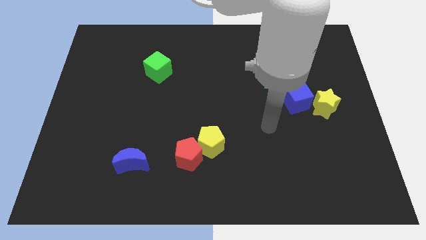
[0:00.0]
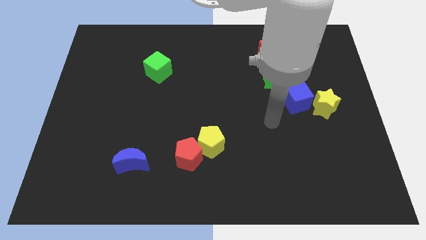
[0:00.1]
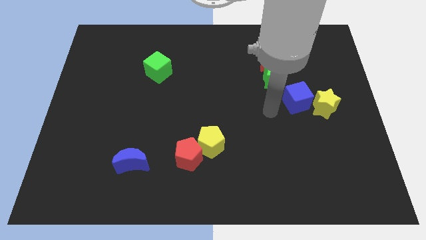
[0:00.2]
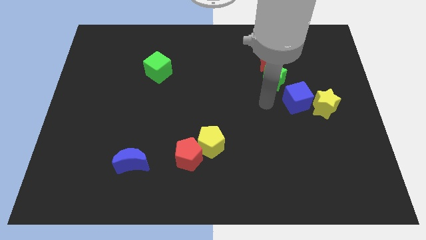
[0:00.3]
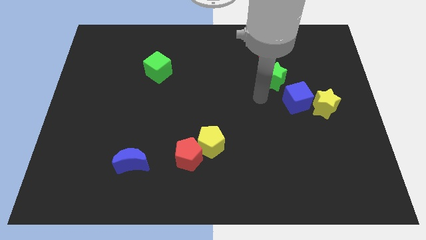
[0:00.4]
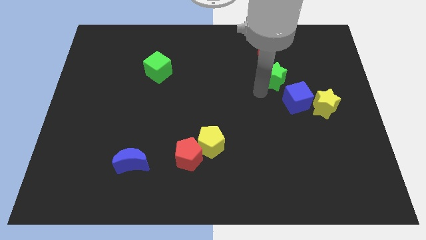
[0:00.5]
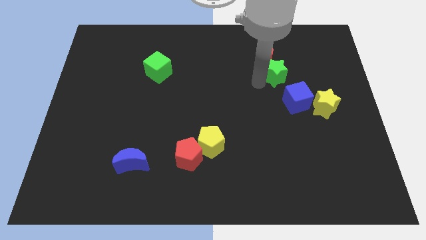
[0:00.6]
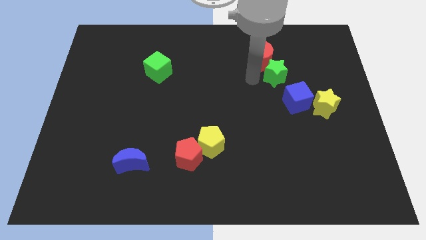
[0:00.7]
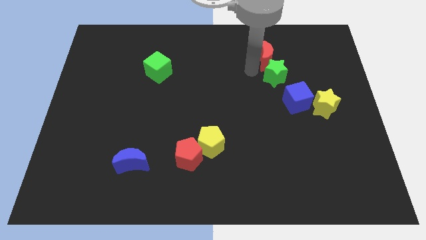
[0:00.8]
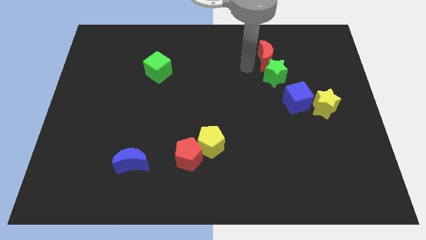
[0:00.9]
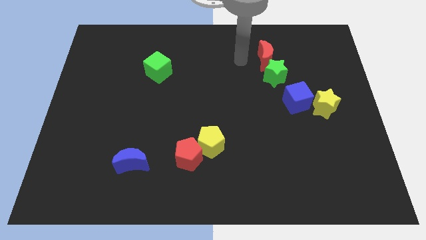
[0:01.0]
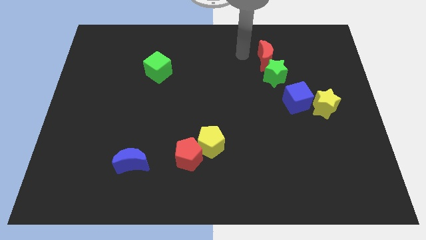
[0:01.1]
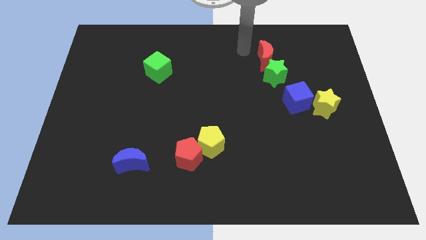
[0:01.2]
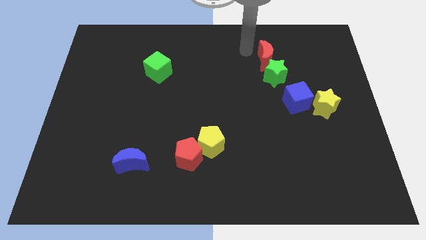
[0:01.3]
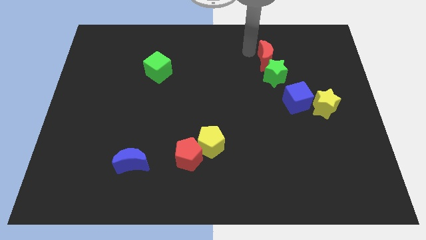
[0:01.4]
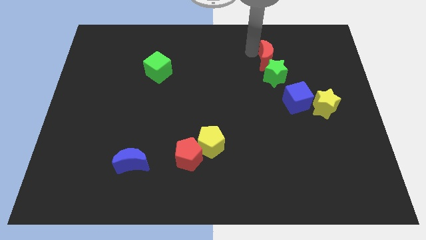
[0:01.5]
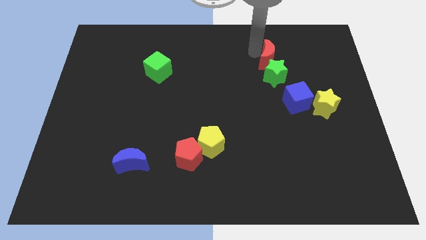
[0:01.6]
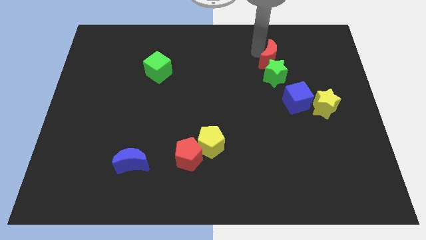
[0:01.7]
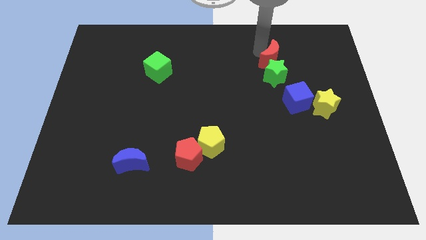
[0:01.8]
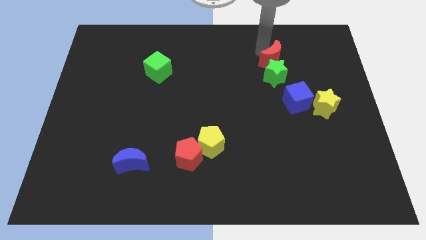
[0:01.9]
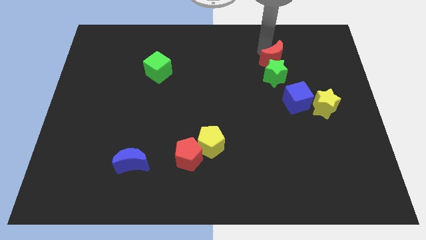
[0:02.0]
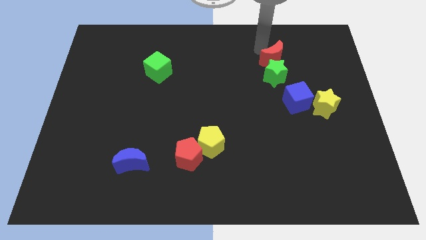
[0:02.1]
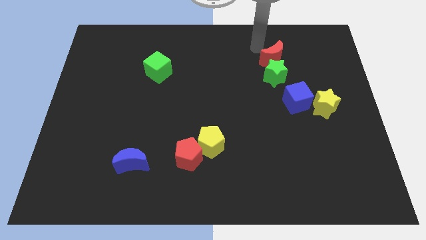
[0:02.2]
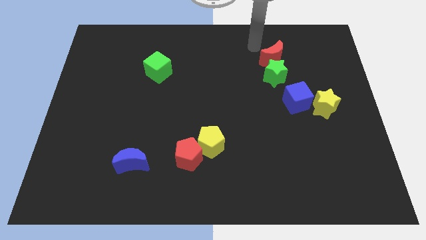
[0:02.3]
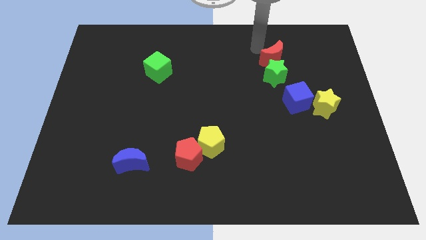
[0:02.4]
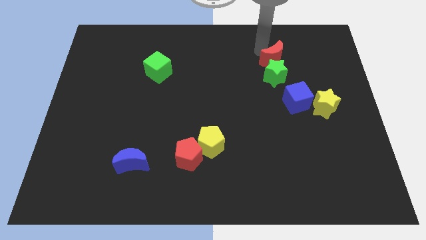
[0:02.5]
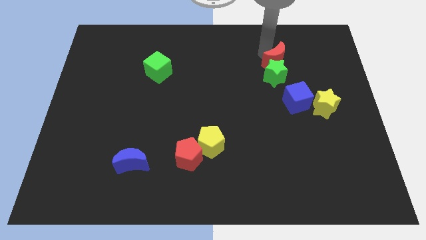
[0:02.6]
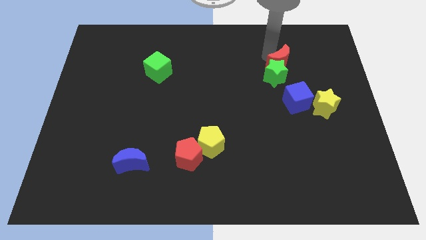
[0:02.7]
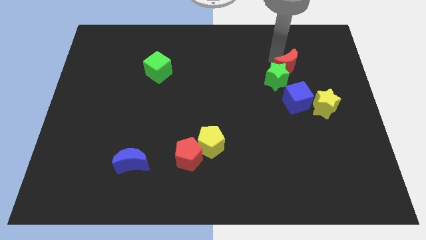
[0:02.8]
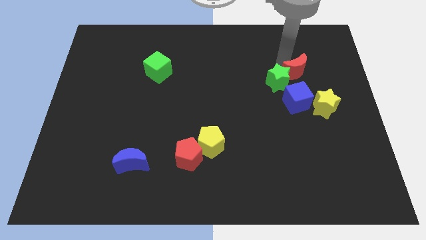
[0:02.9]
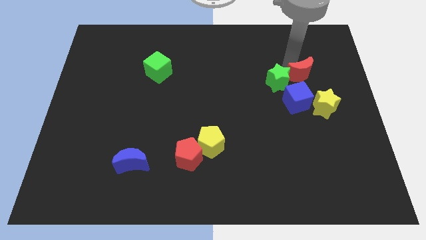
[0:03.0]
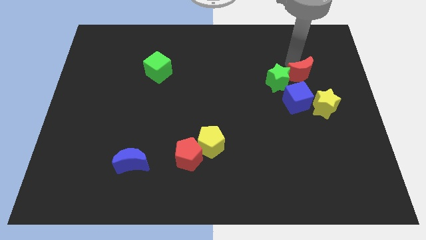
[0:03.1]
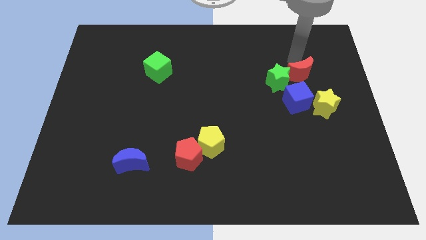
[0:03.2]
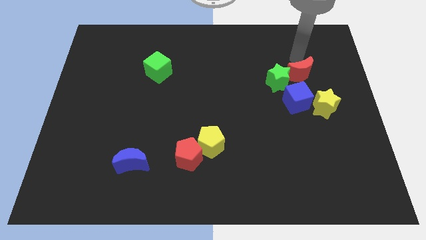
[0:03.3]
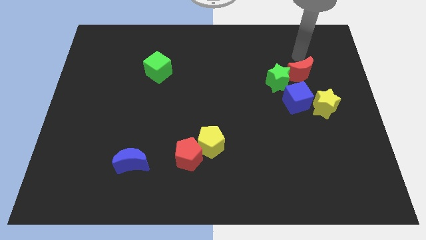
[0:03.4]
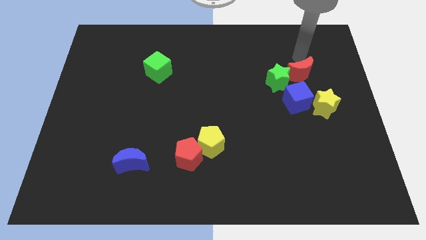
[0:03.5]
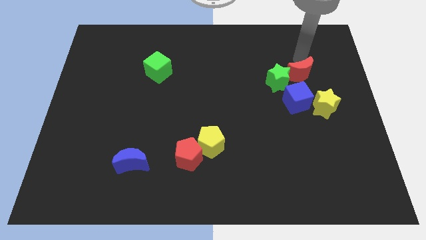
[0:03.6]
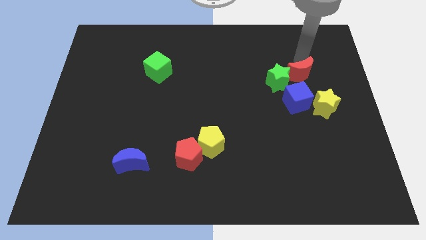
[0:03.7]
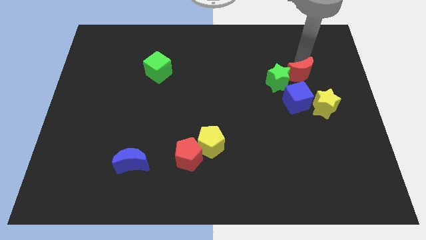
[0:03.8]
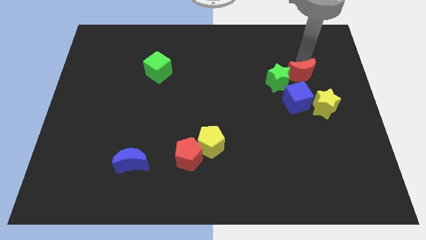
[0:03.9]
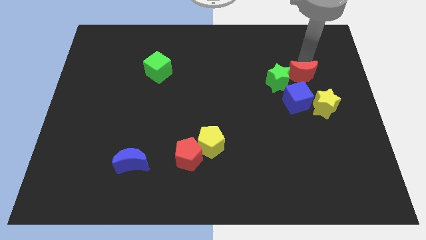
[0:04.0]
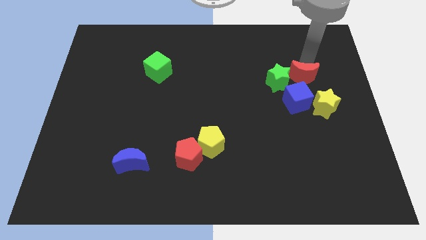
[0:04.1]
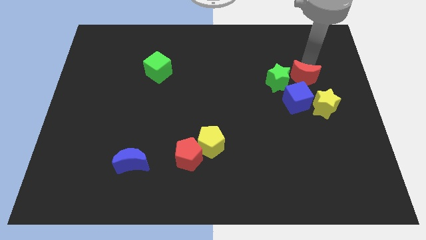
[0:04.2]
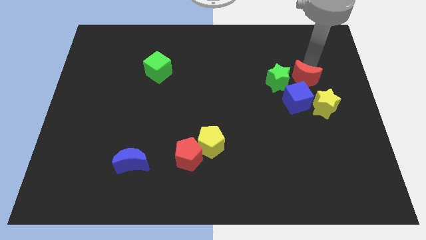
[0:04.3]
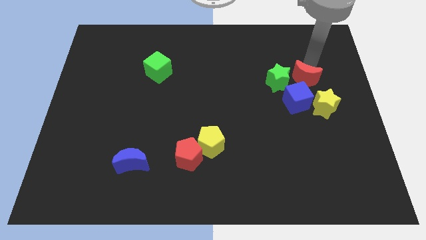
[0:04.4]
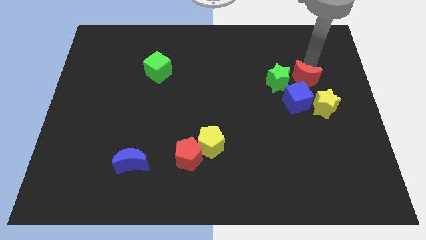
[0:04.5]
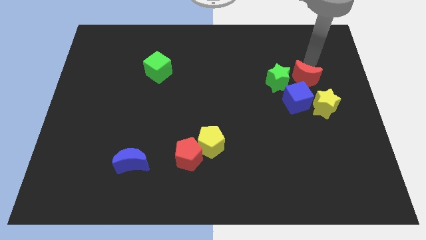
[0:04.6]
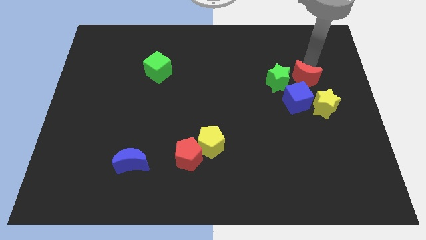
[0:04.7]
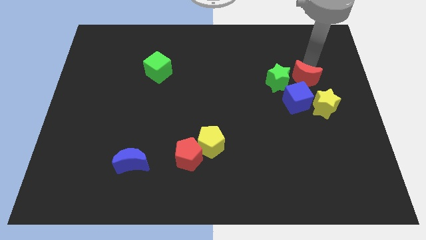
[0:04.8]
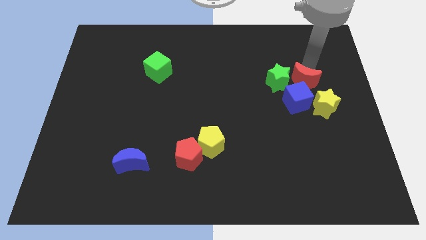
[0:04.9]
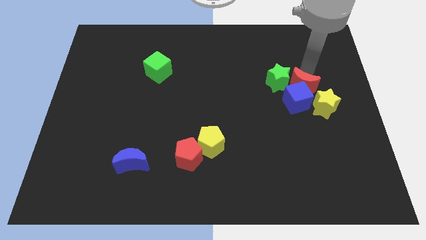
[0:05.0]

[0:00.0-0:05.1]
push the red moon next to the blue cube

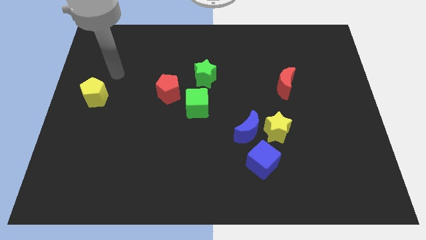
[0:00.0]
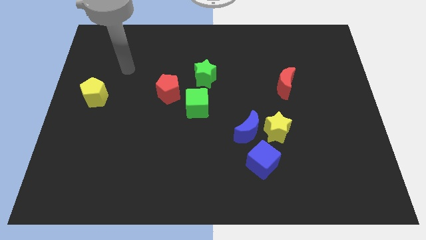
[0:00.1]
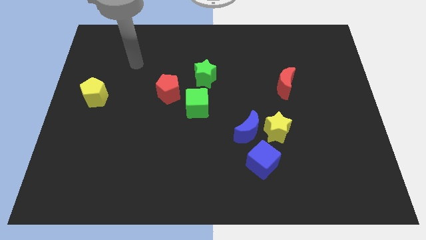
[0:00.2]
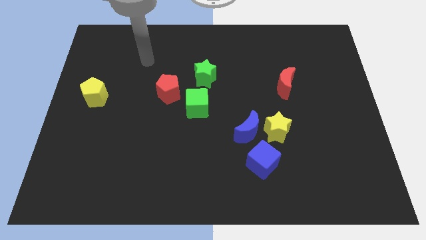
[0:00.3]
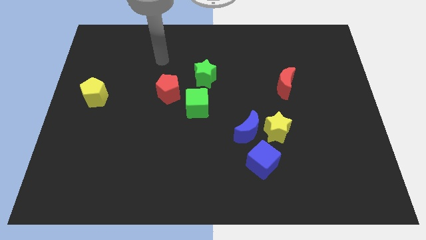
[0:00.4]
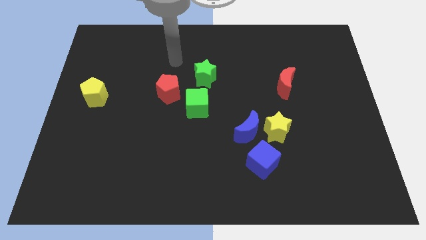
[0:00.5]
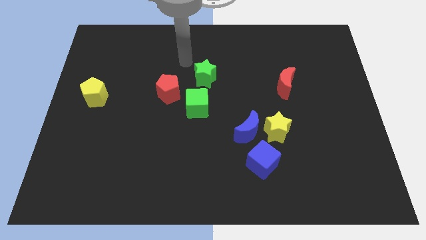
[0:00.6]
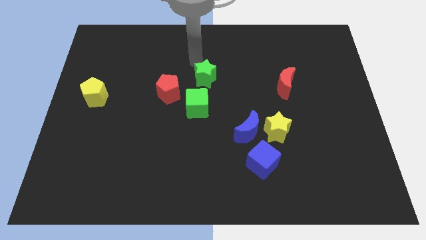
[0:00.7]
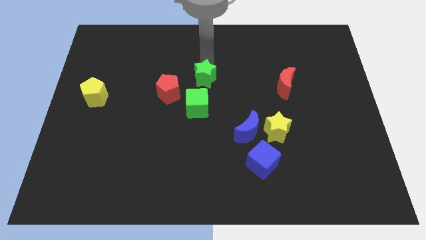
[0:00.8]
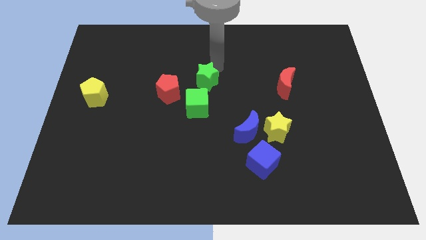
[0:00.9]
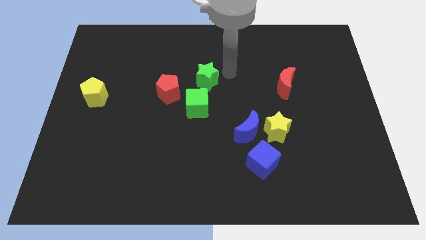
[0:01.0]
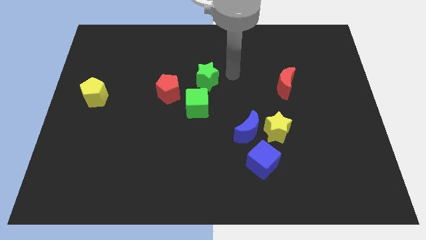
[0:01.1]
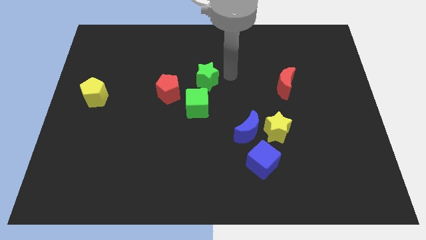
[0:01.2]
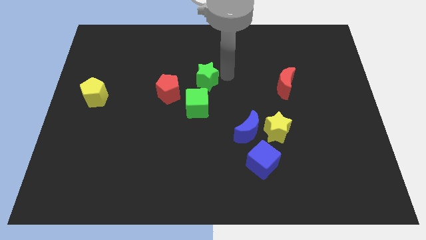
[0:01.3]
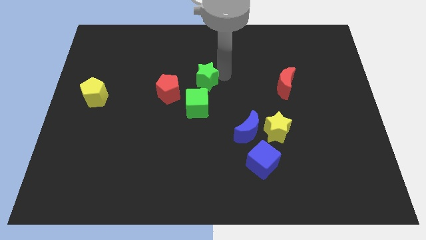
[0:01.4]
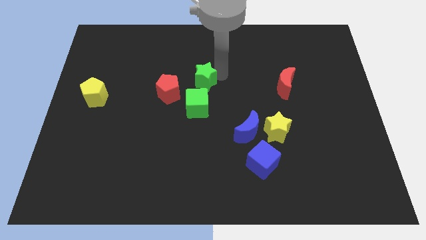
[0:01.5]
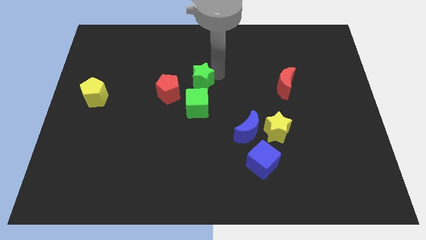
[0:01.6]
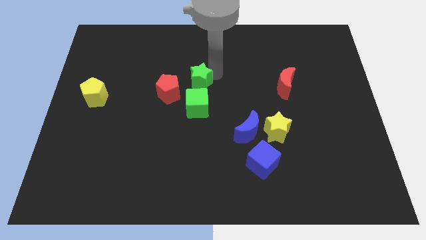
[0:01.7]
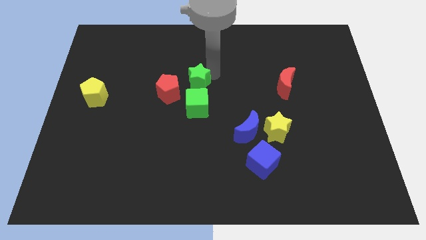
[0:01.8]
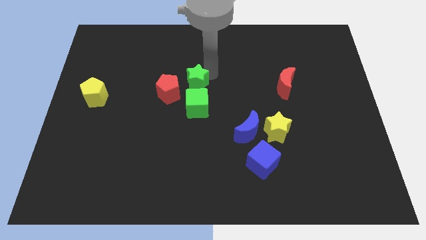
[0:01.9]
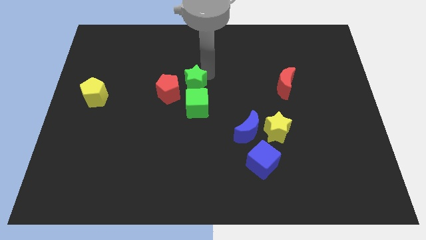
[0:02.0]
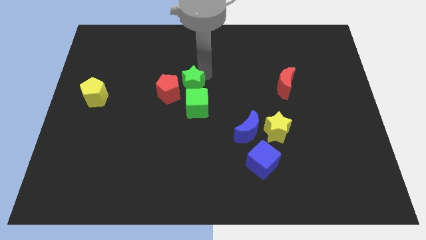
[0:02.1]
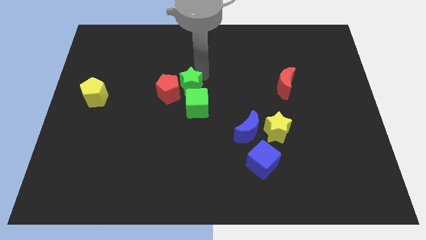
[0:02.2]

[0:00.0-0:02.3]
move the green star towards the red pentagon

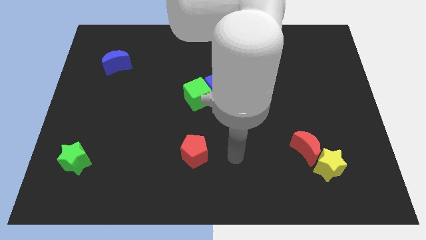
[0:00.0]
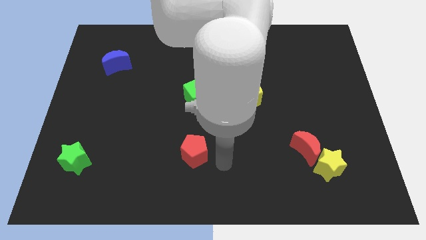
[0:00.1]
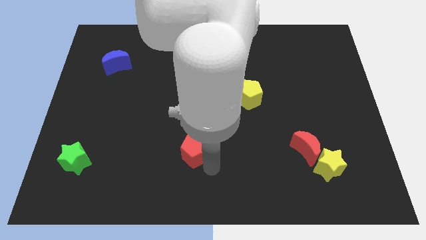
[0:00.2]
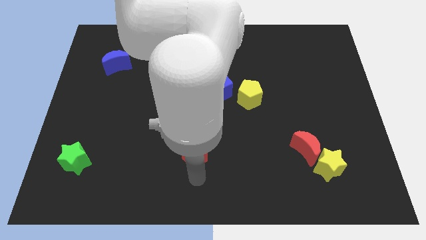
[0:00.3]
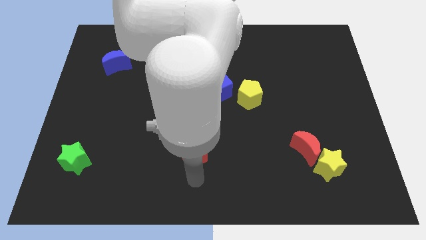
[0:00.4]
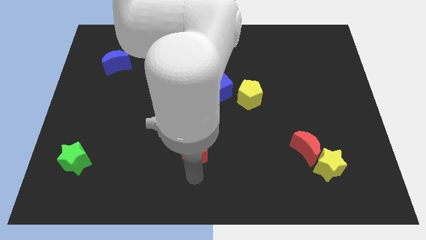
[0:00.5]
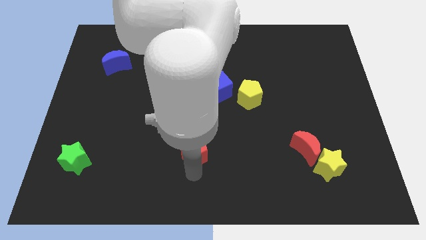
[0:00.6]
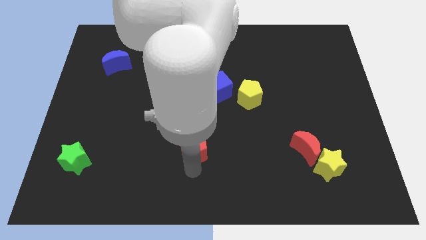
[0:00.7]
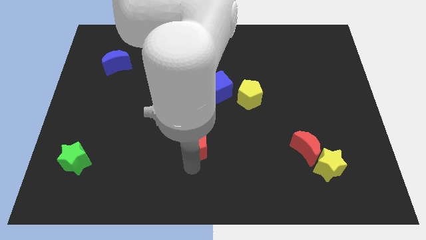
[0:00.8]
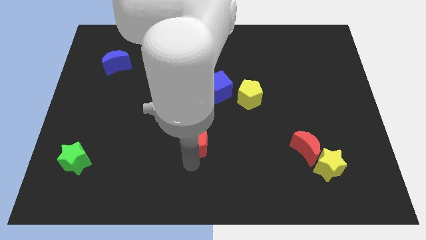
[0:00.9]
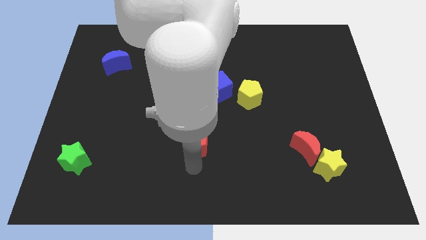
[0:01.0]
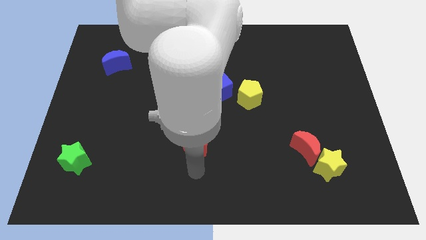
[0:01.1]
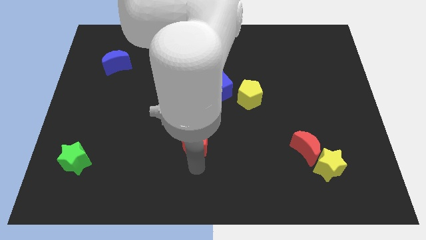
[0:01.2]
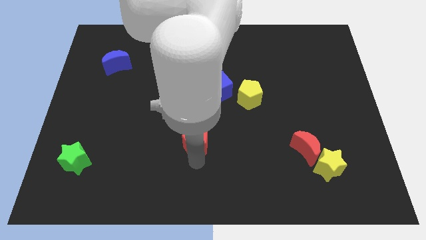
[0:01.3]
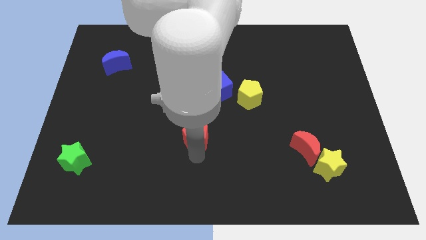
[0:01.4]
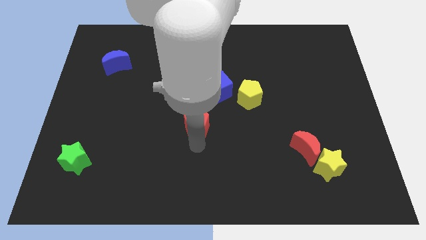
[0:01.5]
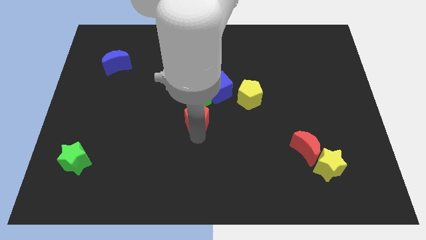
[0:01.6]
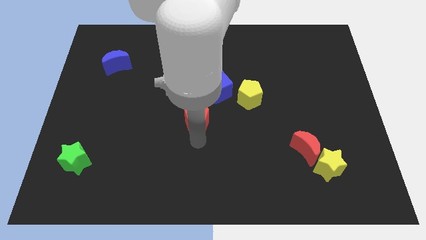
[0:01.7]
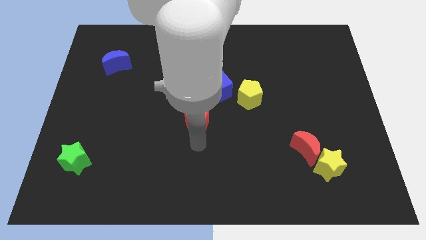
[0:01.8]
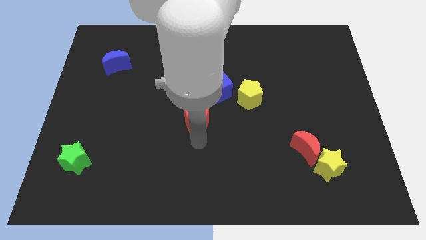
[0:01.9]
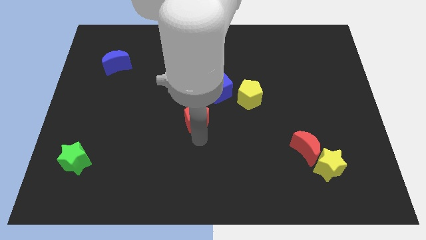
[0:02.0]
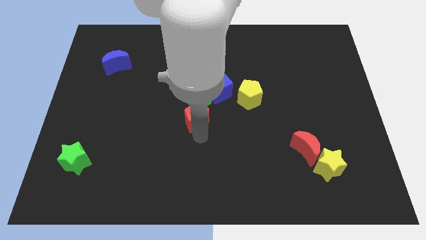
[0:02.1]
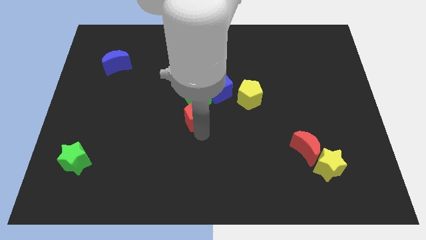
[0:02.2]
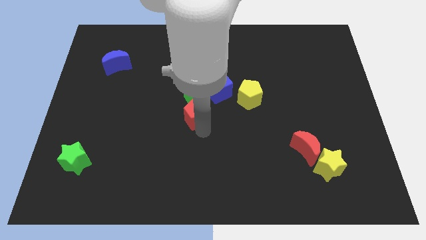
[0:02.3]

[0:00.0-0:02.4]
push the red pentagon close to the green cube
